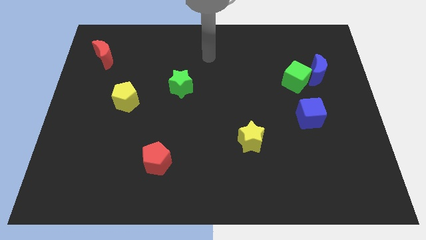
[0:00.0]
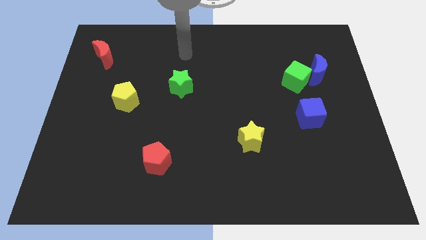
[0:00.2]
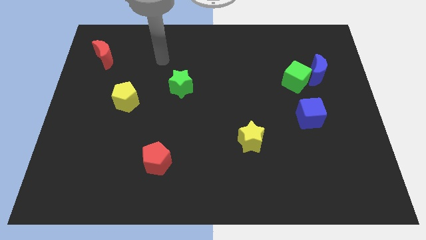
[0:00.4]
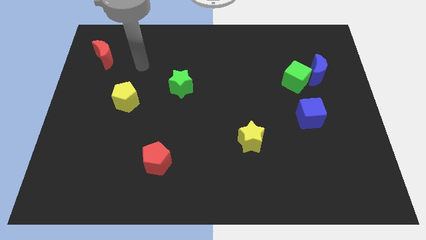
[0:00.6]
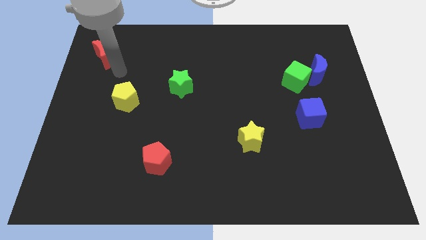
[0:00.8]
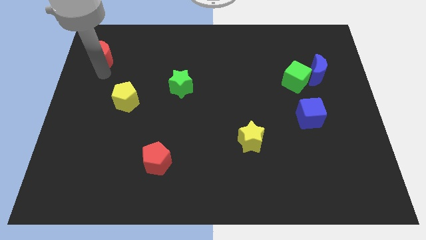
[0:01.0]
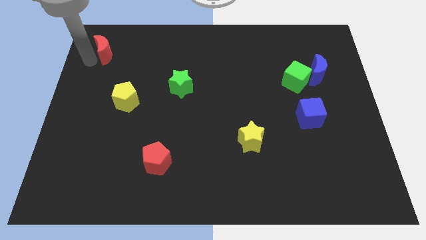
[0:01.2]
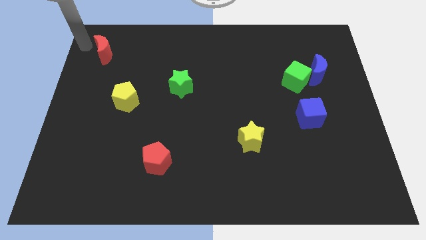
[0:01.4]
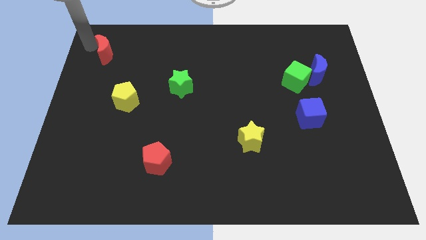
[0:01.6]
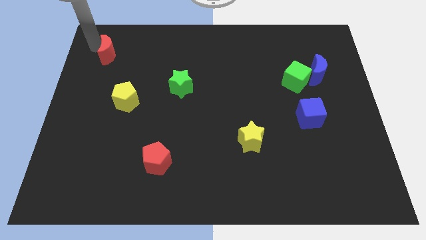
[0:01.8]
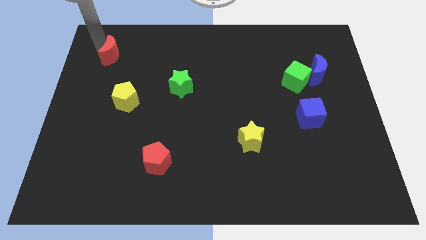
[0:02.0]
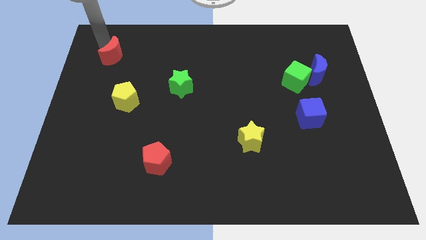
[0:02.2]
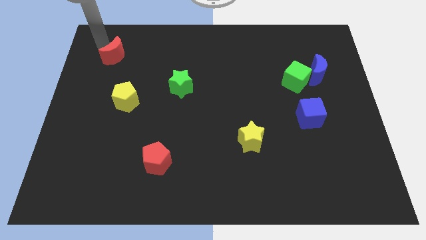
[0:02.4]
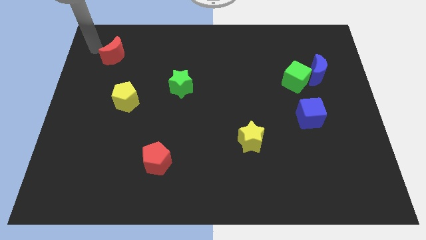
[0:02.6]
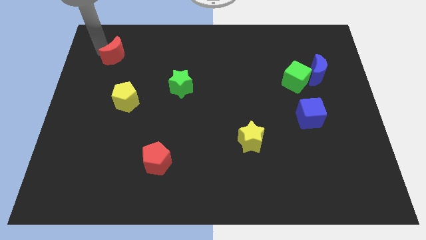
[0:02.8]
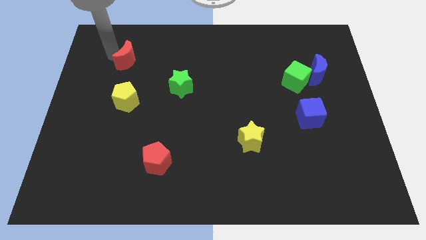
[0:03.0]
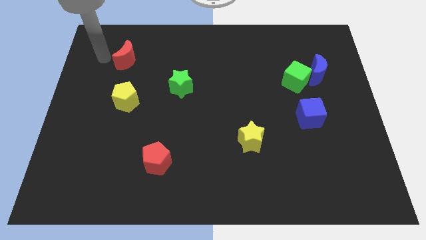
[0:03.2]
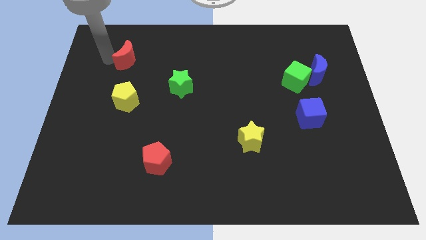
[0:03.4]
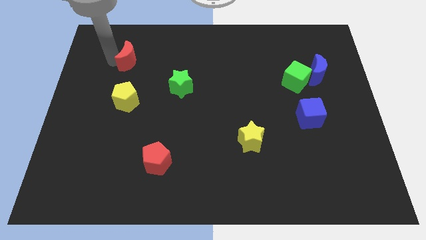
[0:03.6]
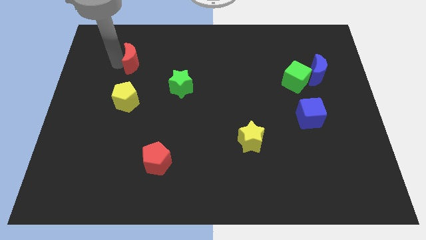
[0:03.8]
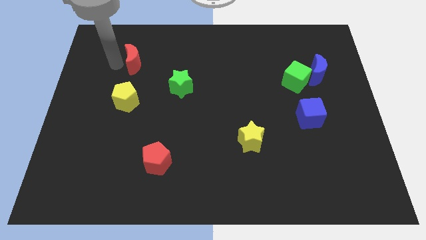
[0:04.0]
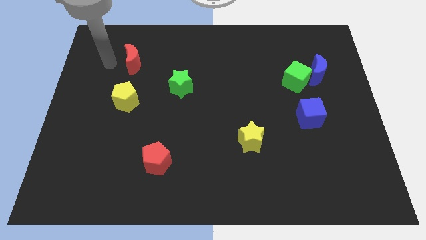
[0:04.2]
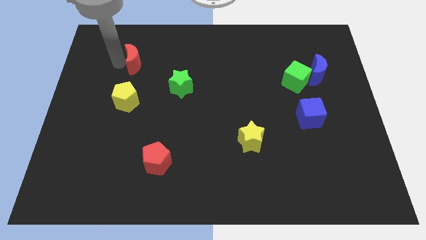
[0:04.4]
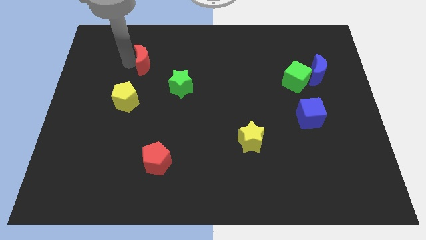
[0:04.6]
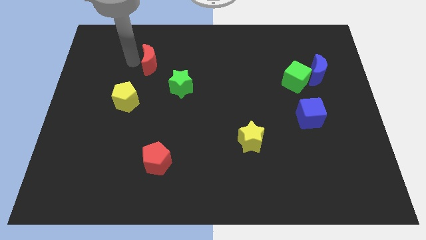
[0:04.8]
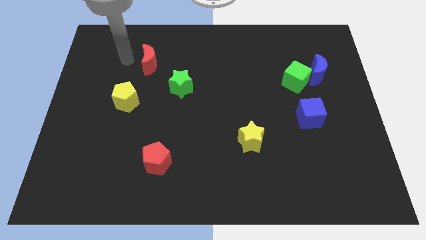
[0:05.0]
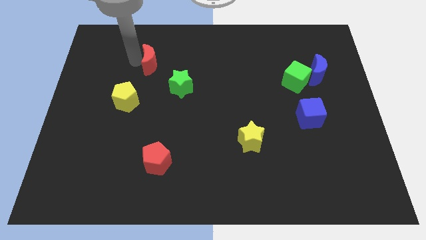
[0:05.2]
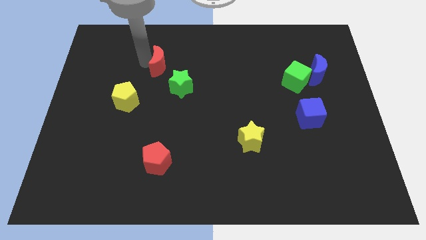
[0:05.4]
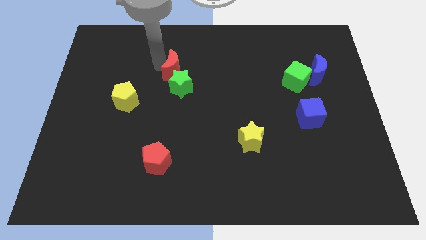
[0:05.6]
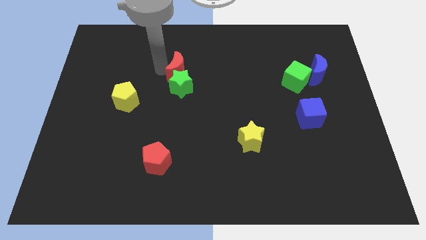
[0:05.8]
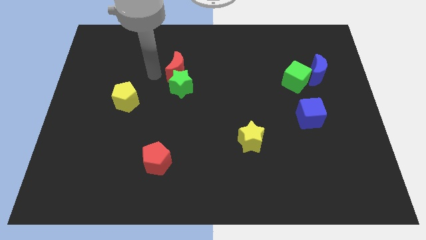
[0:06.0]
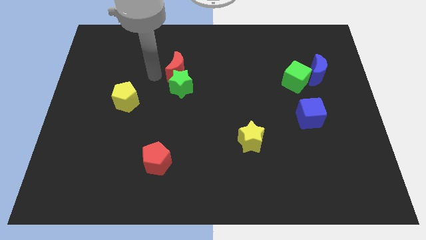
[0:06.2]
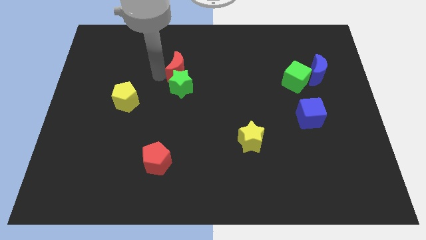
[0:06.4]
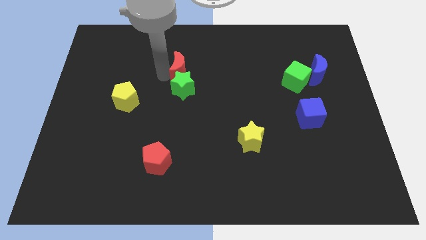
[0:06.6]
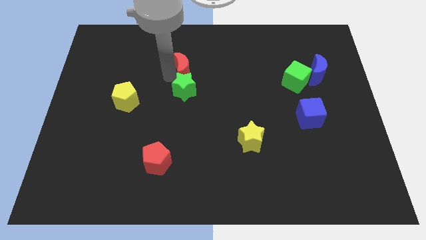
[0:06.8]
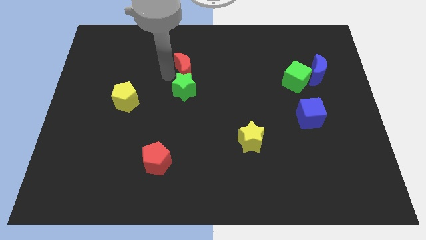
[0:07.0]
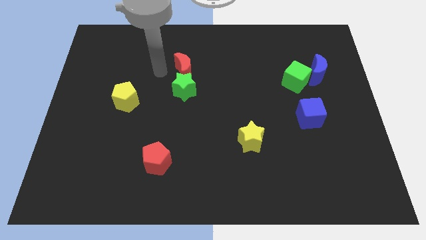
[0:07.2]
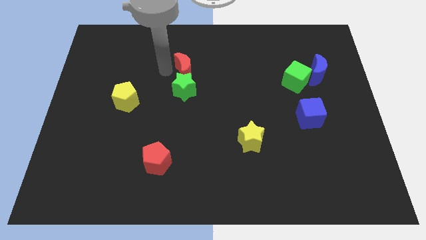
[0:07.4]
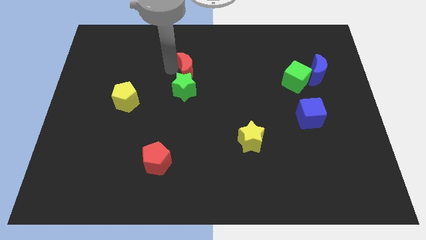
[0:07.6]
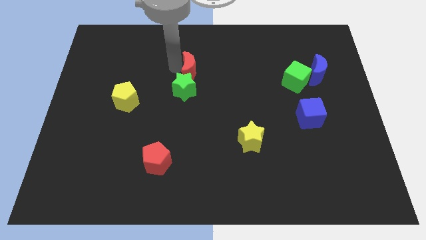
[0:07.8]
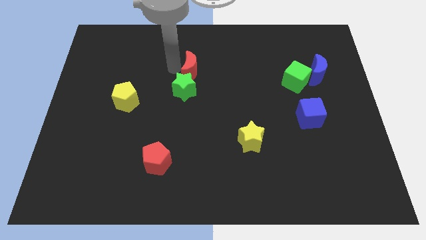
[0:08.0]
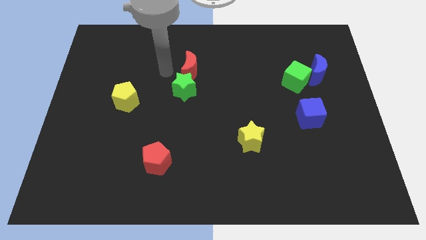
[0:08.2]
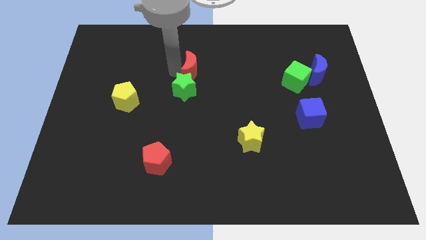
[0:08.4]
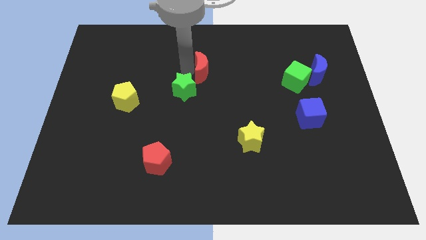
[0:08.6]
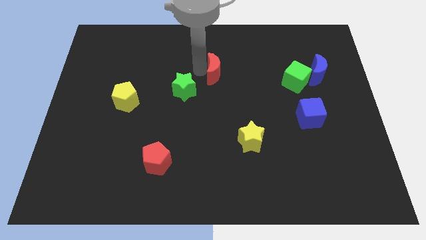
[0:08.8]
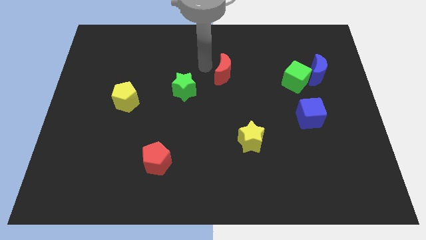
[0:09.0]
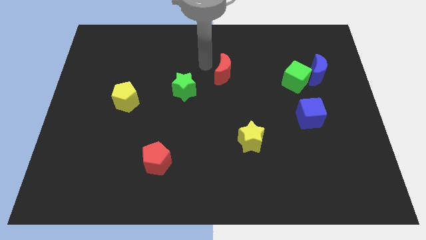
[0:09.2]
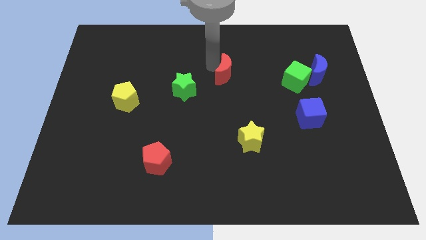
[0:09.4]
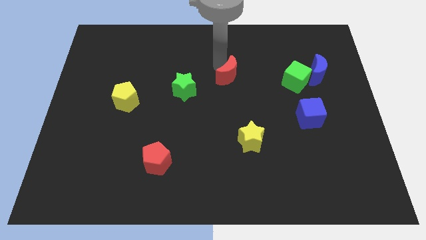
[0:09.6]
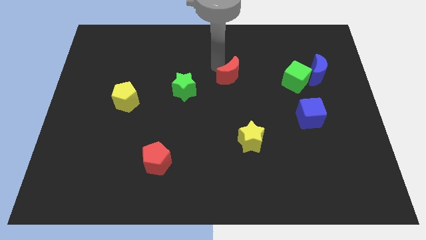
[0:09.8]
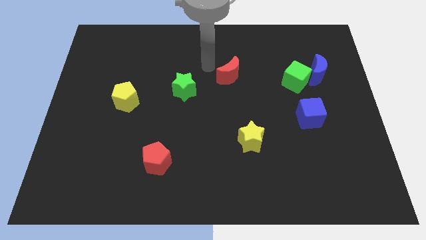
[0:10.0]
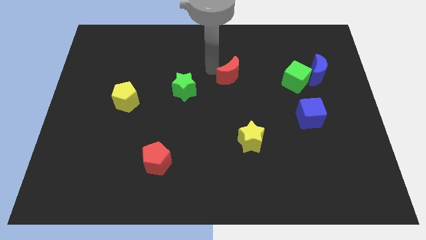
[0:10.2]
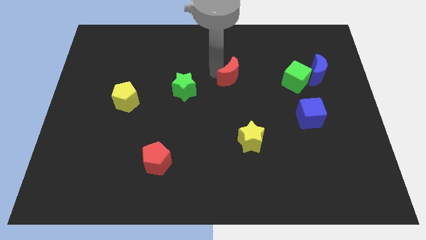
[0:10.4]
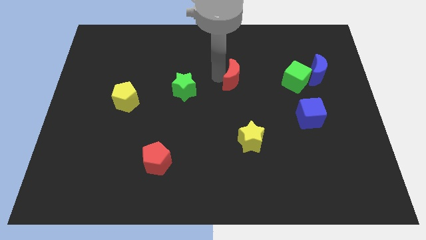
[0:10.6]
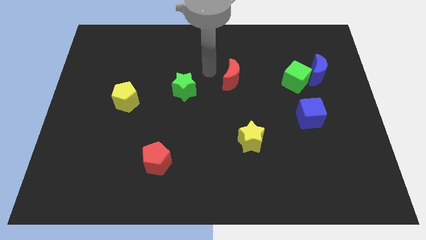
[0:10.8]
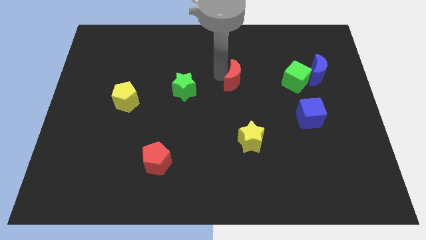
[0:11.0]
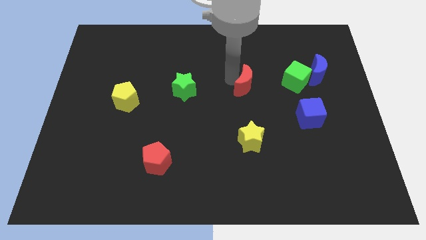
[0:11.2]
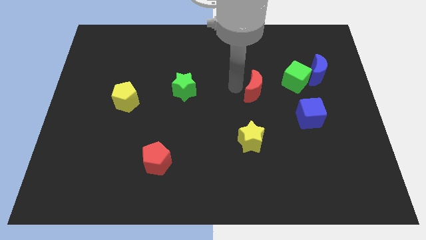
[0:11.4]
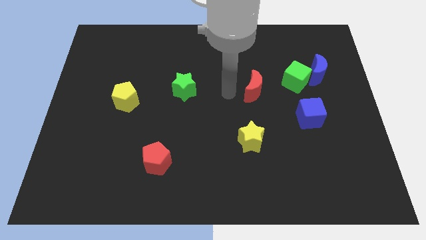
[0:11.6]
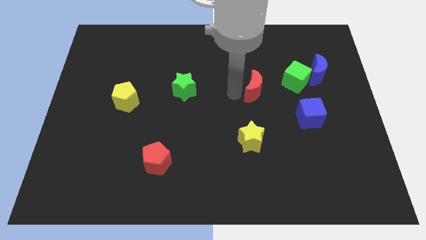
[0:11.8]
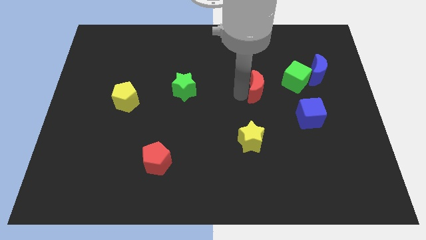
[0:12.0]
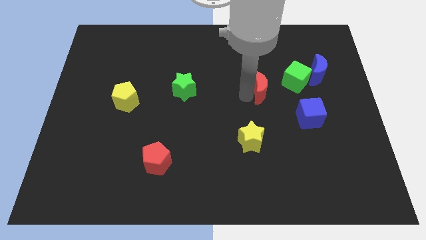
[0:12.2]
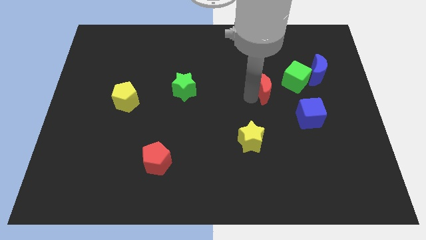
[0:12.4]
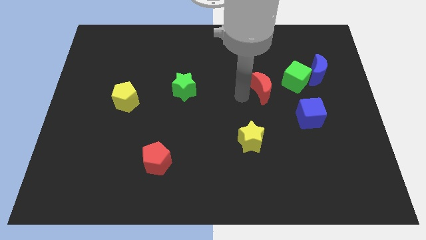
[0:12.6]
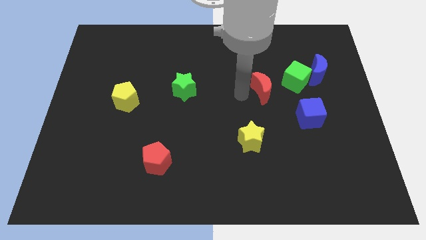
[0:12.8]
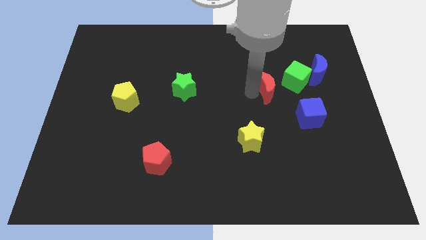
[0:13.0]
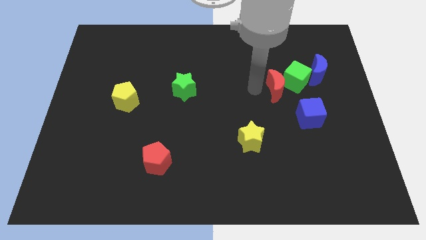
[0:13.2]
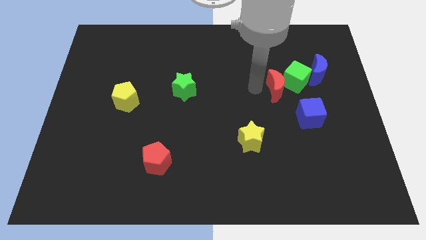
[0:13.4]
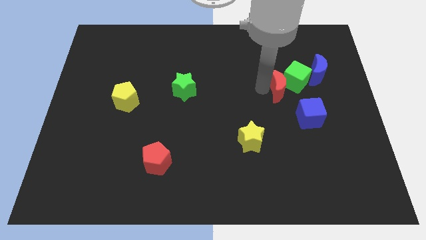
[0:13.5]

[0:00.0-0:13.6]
put the red moon to the bottom left side of the blue moon

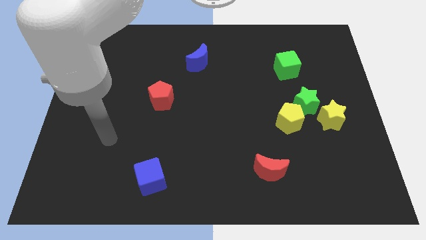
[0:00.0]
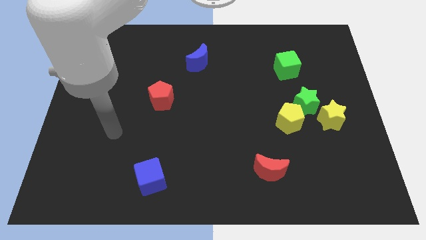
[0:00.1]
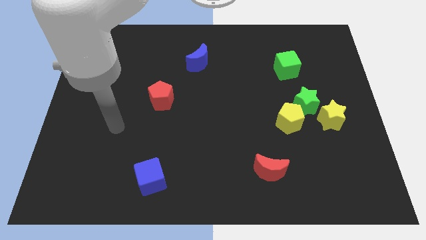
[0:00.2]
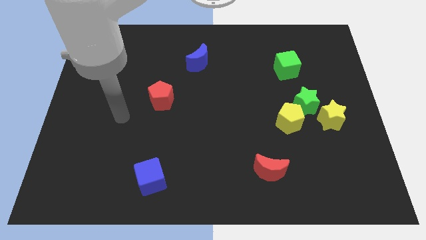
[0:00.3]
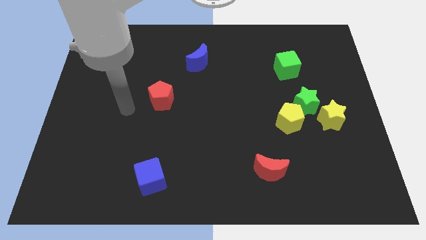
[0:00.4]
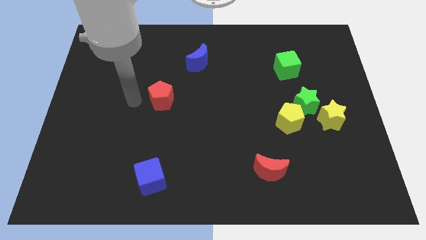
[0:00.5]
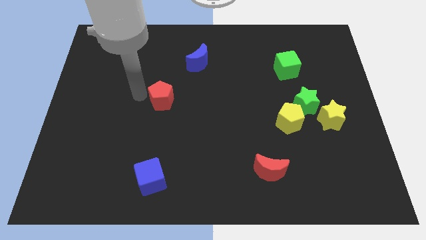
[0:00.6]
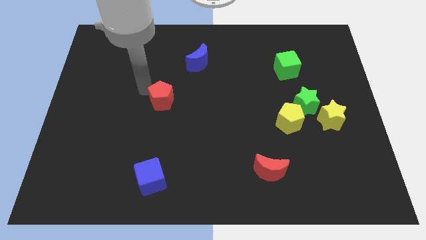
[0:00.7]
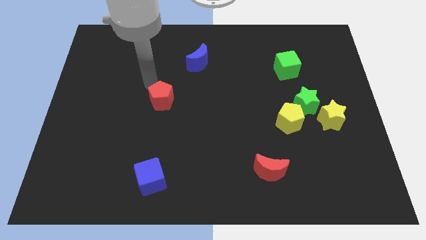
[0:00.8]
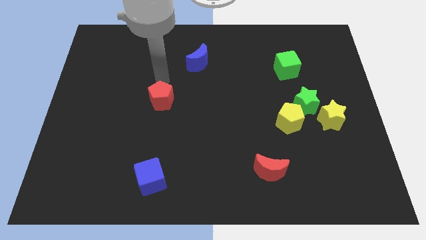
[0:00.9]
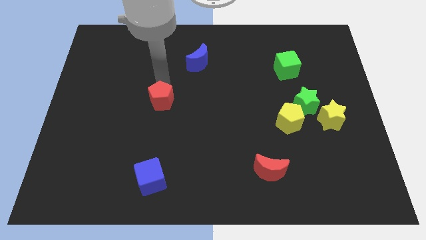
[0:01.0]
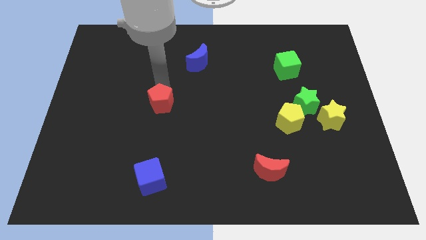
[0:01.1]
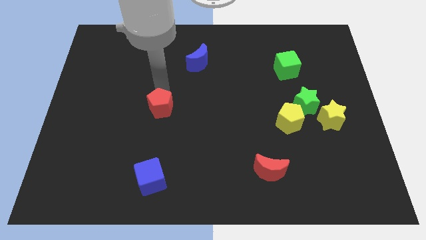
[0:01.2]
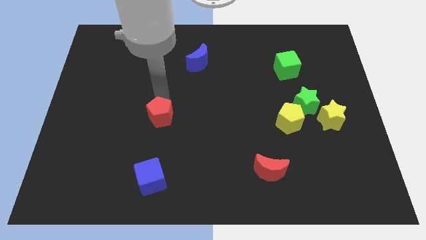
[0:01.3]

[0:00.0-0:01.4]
put the red pentagon to the top of the blue cube
